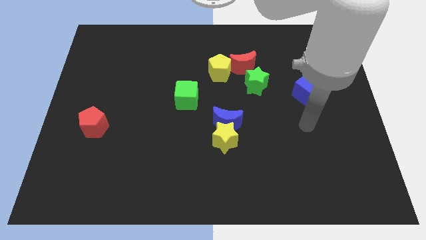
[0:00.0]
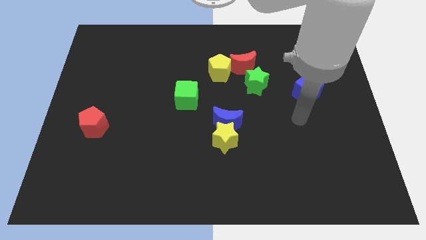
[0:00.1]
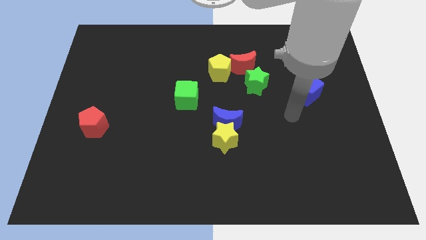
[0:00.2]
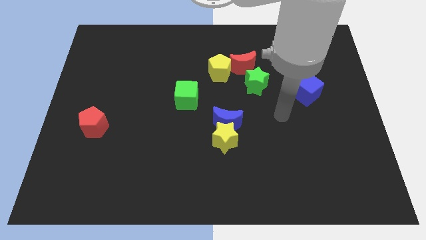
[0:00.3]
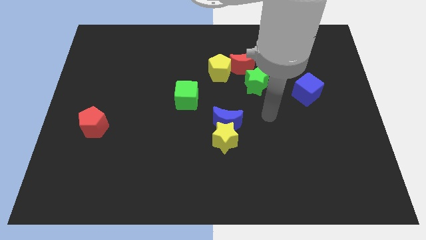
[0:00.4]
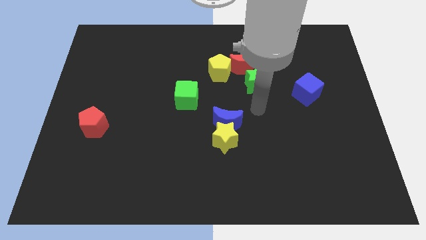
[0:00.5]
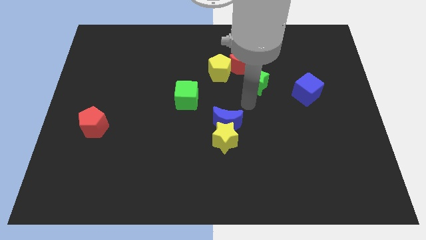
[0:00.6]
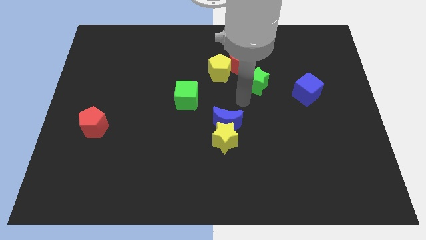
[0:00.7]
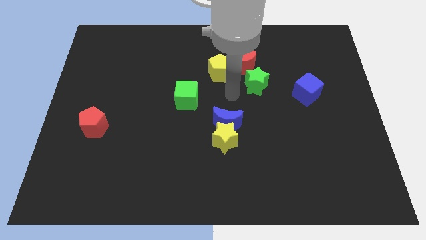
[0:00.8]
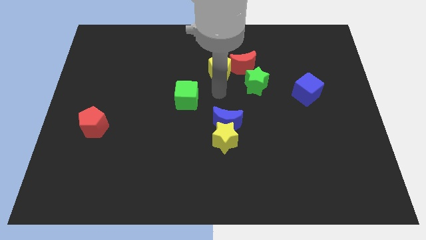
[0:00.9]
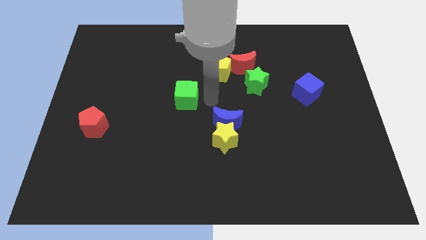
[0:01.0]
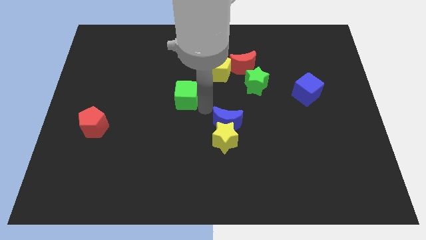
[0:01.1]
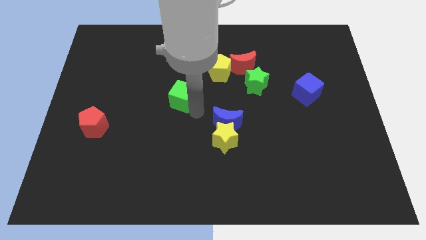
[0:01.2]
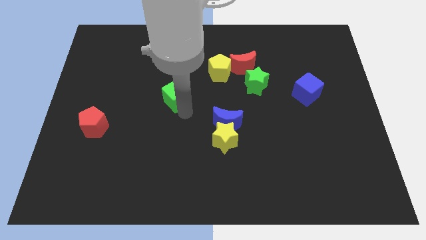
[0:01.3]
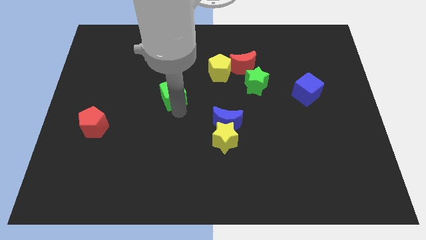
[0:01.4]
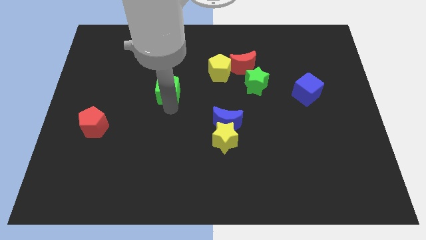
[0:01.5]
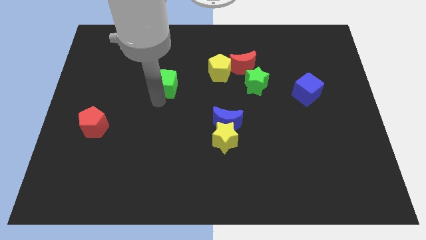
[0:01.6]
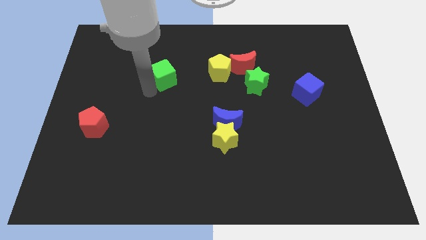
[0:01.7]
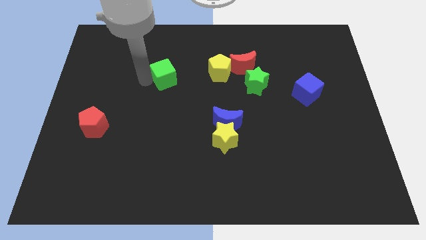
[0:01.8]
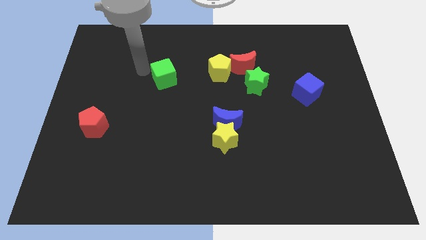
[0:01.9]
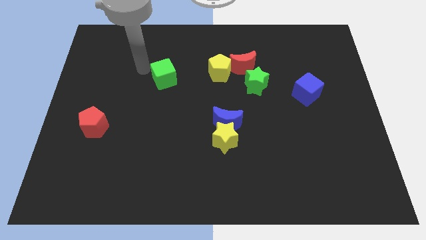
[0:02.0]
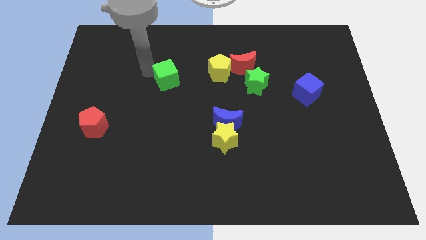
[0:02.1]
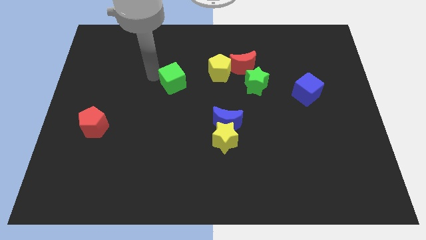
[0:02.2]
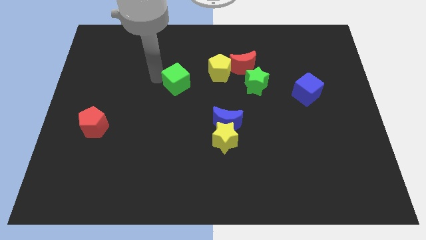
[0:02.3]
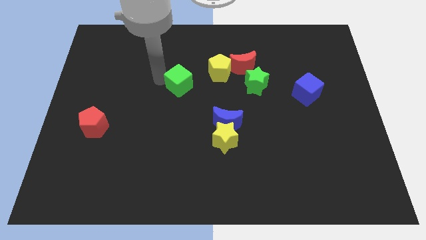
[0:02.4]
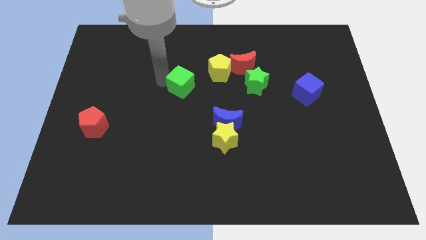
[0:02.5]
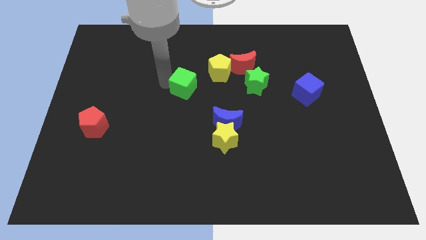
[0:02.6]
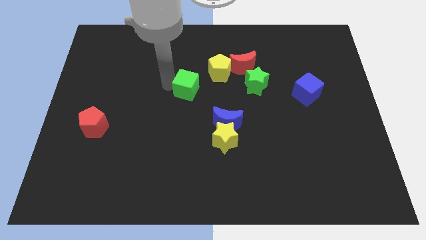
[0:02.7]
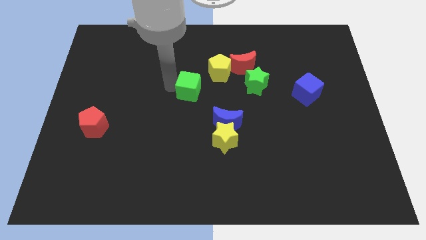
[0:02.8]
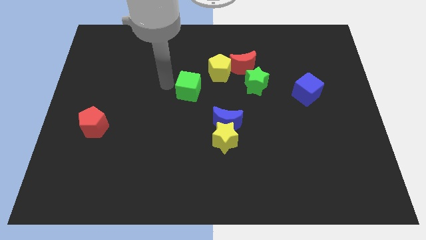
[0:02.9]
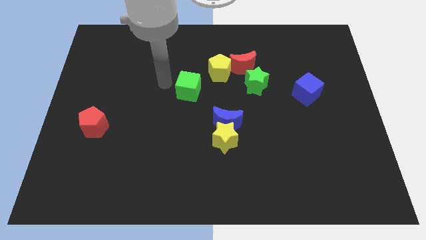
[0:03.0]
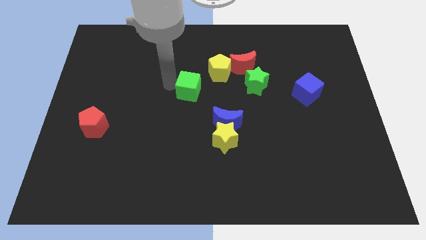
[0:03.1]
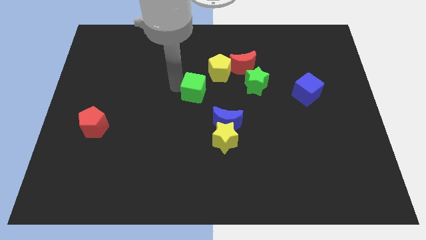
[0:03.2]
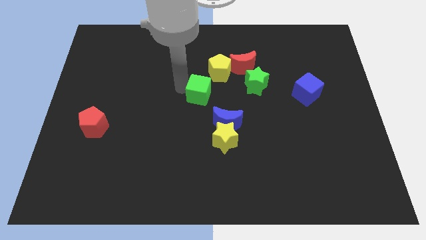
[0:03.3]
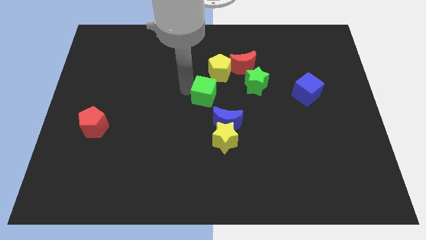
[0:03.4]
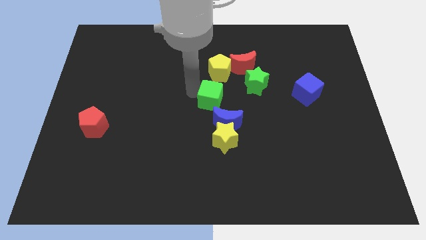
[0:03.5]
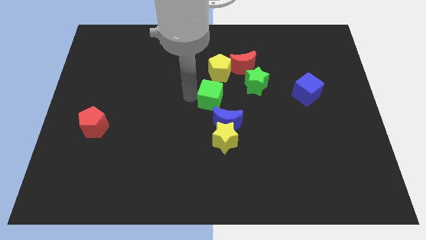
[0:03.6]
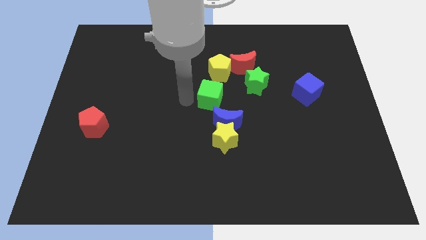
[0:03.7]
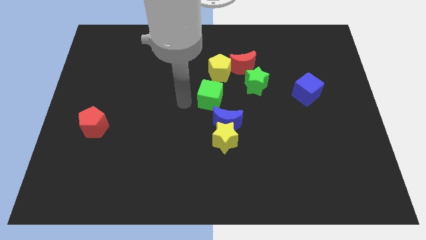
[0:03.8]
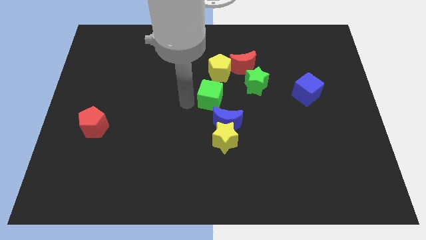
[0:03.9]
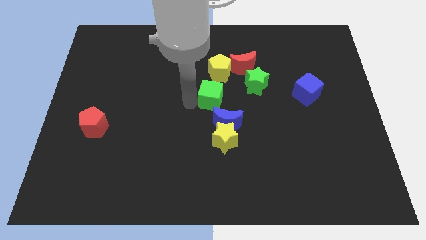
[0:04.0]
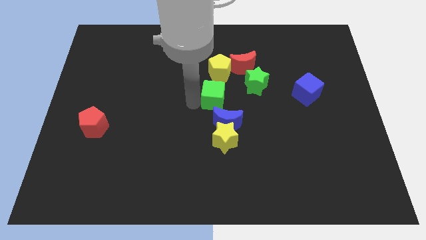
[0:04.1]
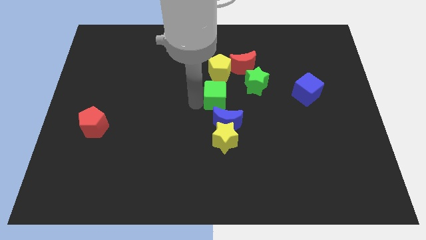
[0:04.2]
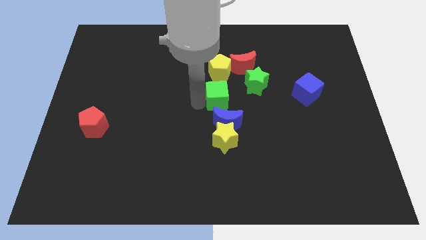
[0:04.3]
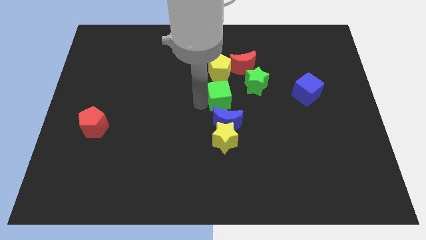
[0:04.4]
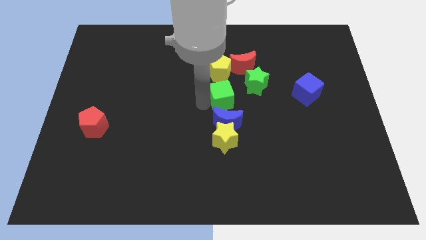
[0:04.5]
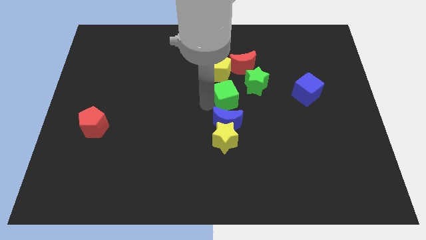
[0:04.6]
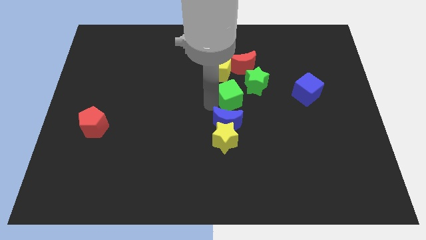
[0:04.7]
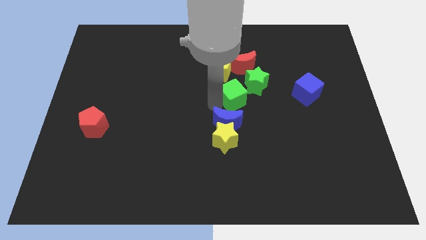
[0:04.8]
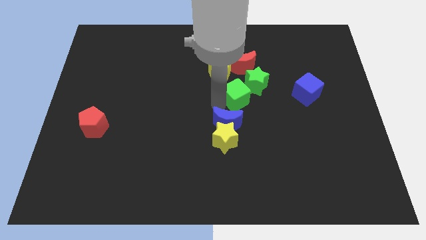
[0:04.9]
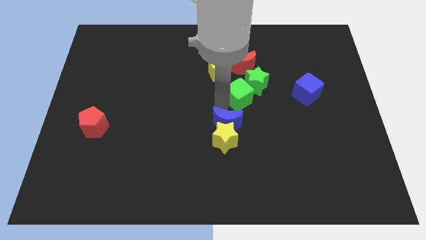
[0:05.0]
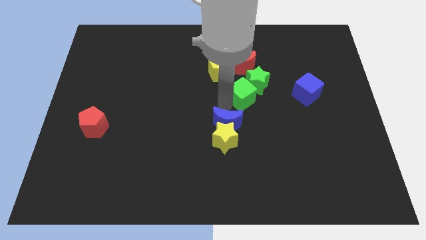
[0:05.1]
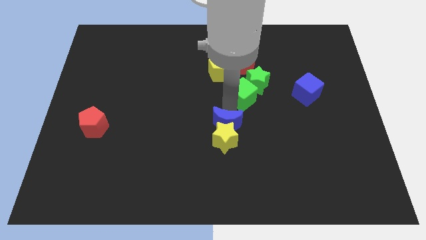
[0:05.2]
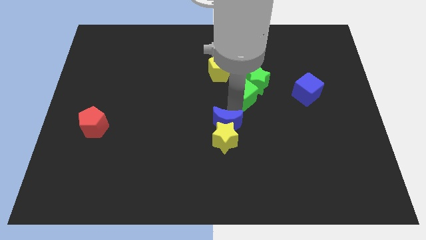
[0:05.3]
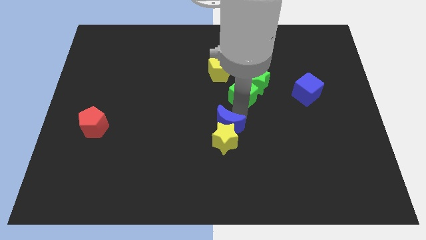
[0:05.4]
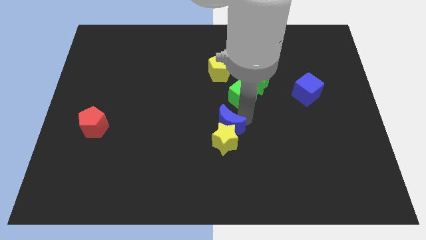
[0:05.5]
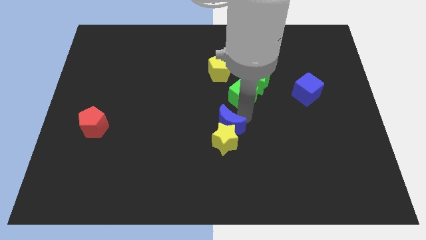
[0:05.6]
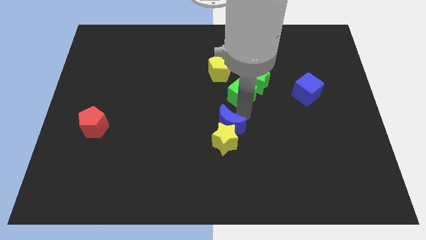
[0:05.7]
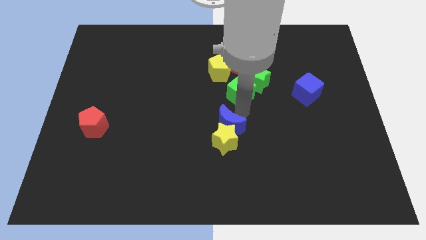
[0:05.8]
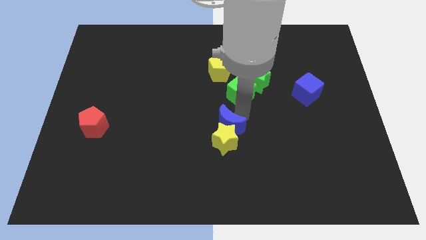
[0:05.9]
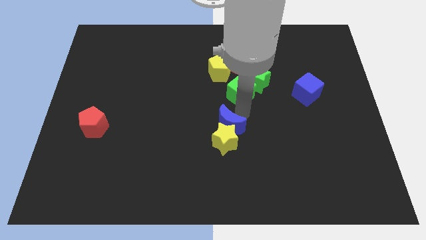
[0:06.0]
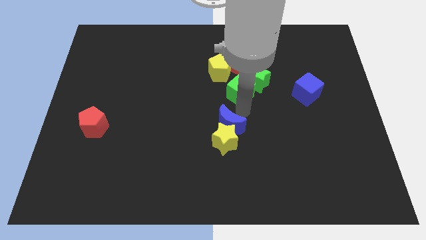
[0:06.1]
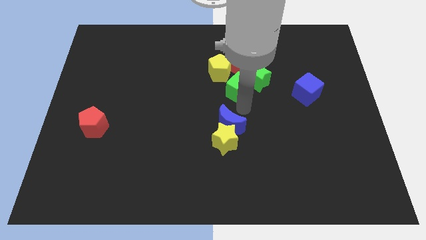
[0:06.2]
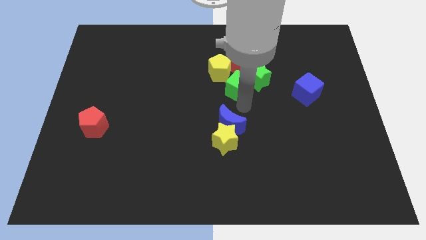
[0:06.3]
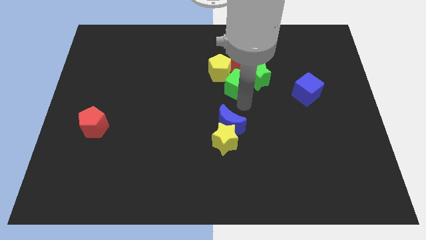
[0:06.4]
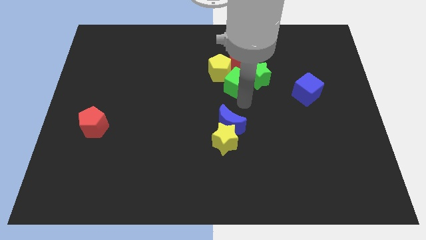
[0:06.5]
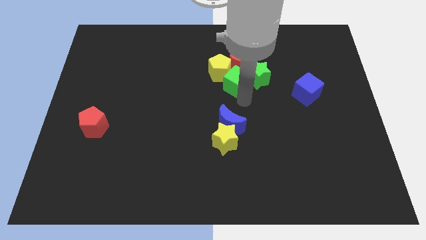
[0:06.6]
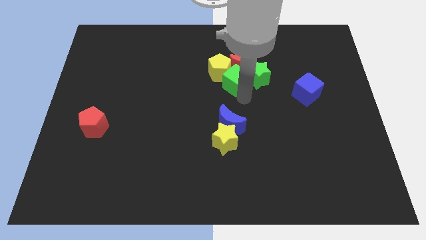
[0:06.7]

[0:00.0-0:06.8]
push the green cube next to the red moon

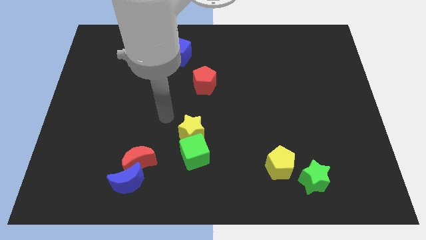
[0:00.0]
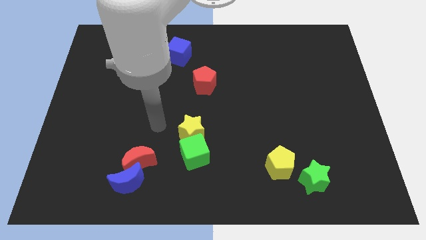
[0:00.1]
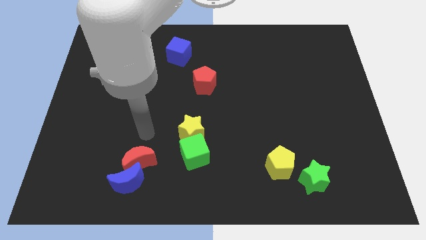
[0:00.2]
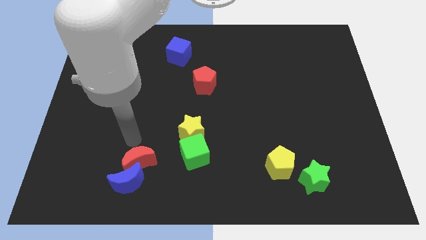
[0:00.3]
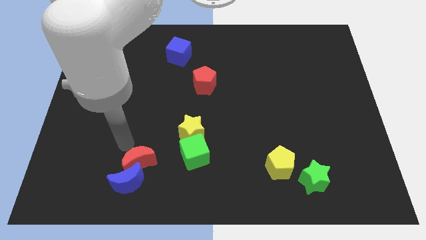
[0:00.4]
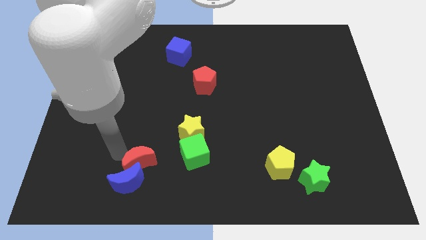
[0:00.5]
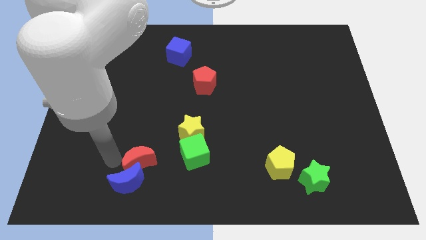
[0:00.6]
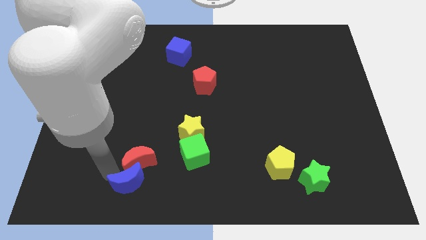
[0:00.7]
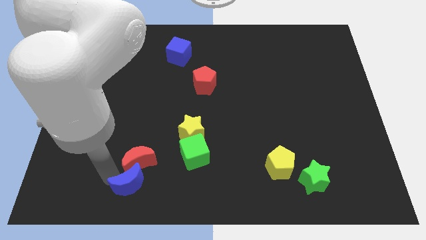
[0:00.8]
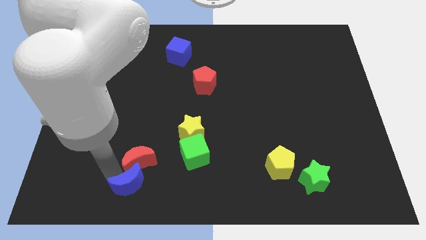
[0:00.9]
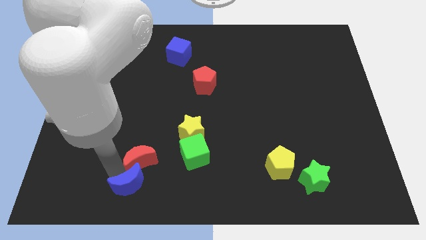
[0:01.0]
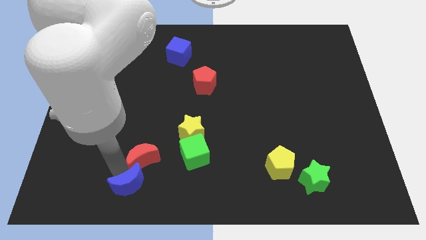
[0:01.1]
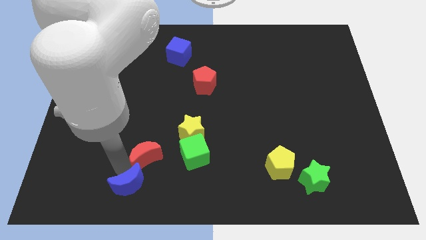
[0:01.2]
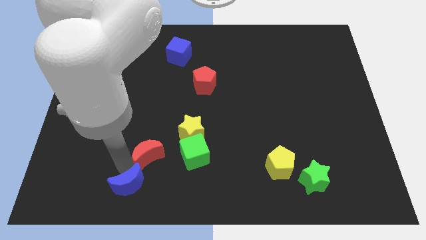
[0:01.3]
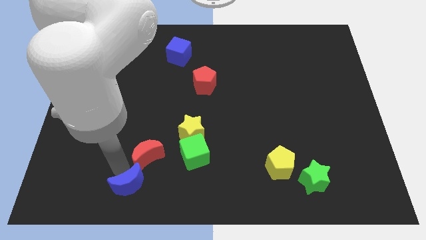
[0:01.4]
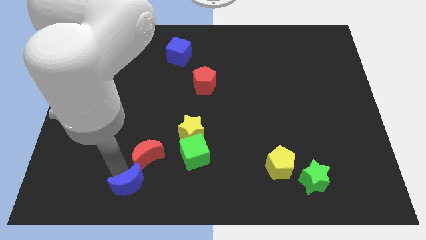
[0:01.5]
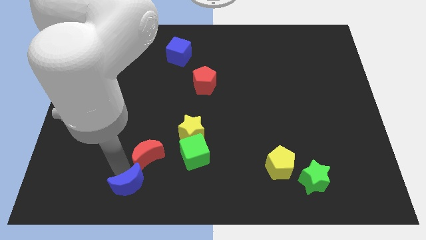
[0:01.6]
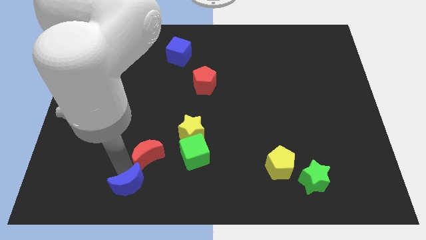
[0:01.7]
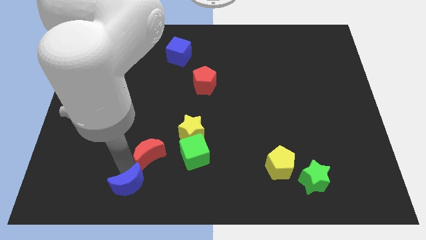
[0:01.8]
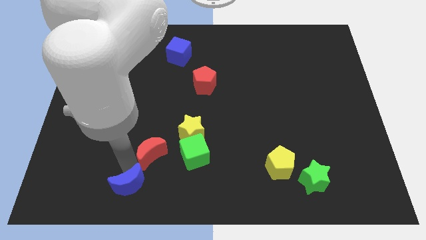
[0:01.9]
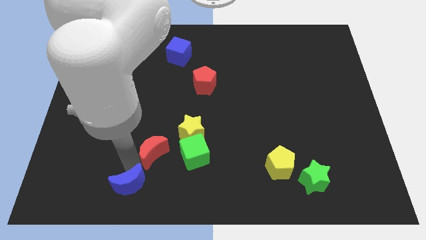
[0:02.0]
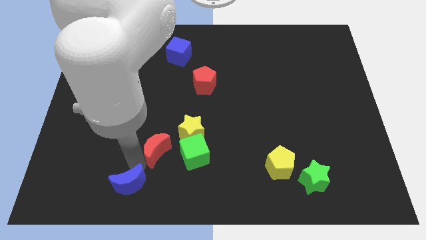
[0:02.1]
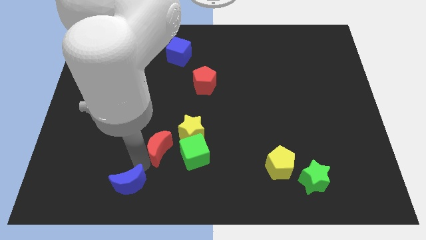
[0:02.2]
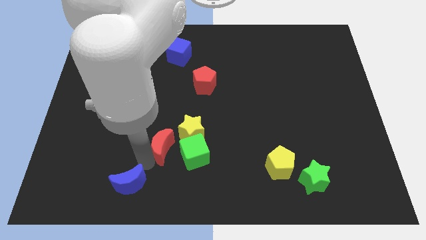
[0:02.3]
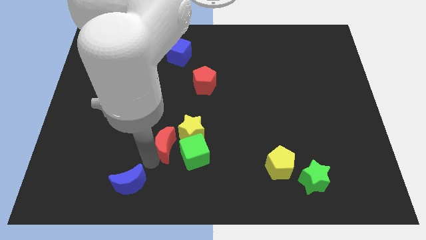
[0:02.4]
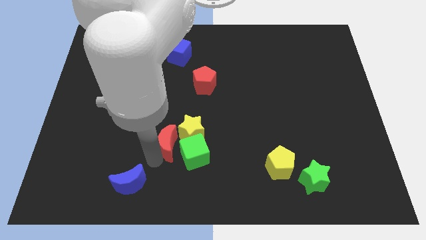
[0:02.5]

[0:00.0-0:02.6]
put the red moon next to the yellow star
